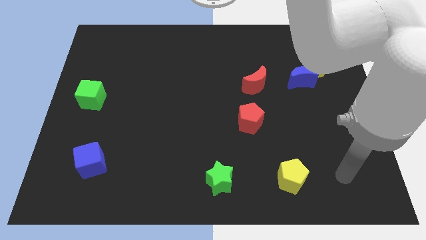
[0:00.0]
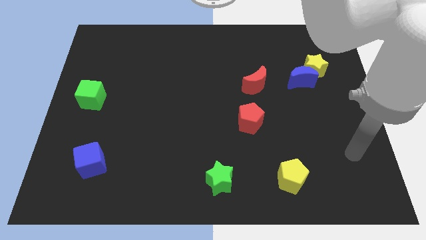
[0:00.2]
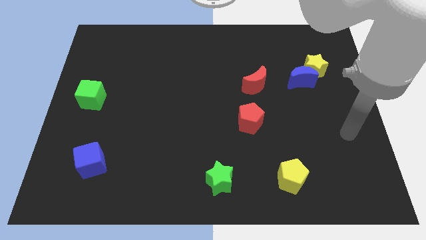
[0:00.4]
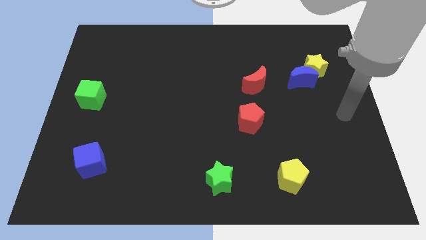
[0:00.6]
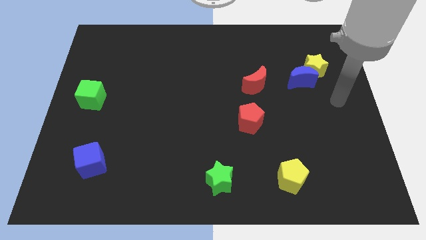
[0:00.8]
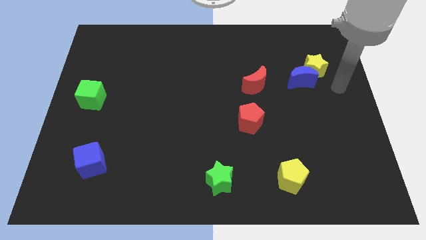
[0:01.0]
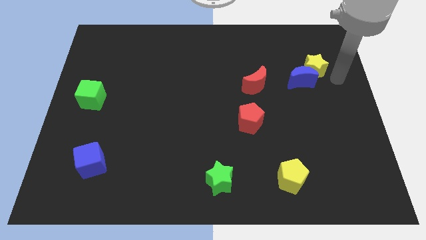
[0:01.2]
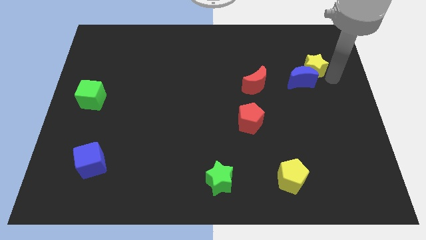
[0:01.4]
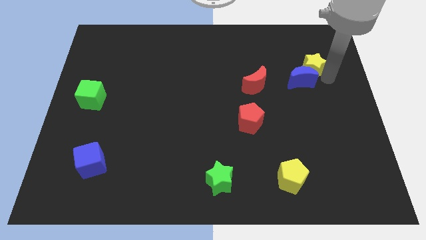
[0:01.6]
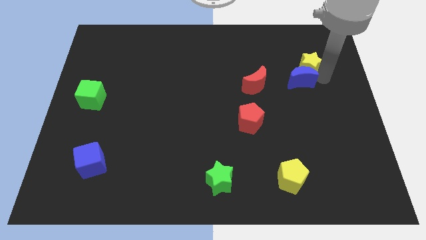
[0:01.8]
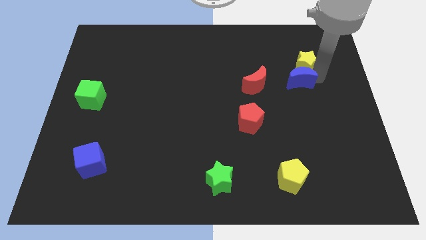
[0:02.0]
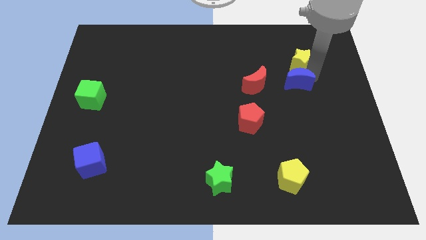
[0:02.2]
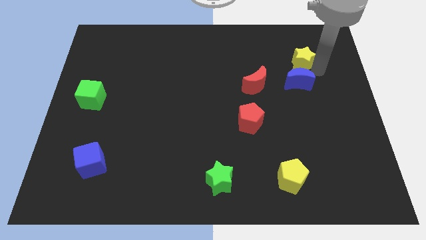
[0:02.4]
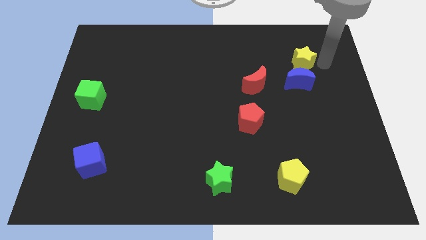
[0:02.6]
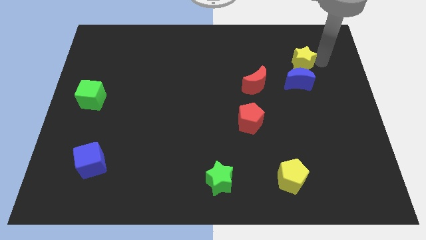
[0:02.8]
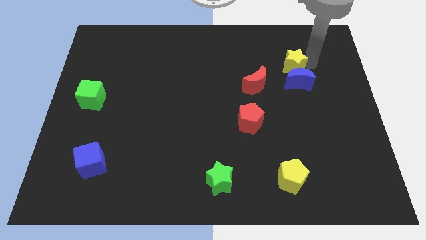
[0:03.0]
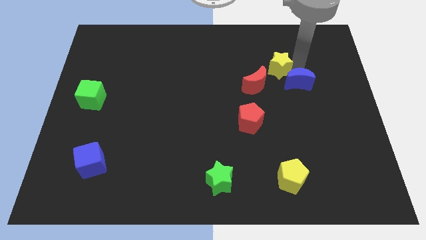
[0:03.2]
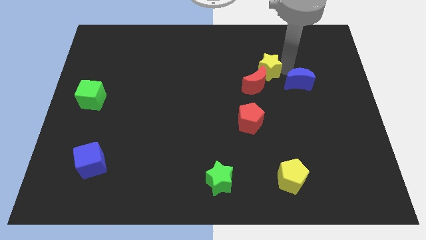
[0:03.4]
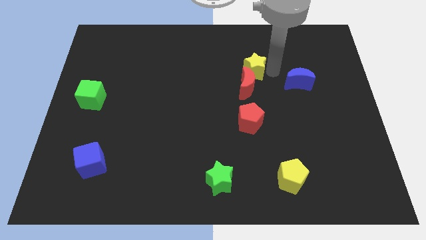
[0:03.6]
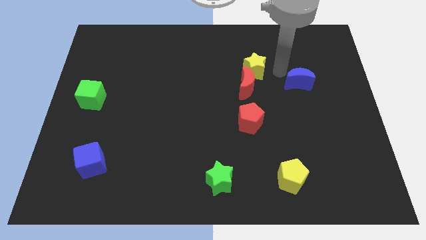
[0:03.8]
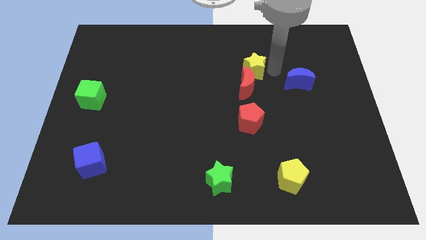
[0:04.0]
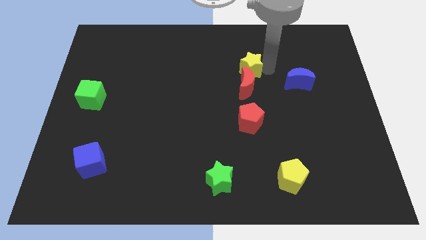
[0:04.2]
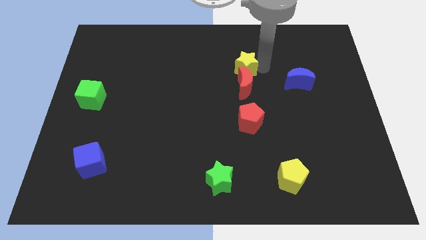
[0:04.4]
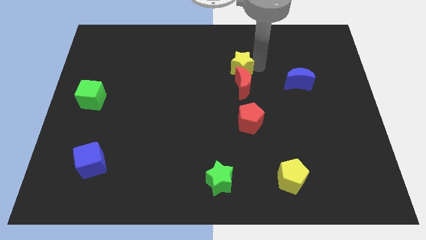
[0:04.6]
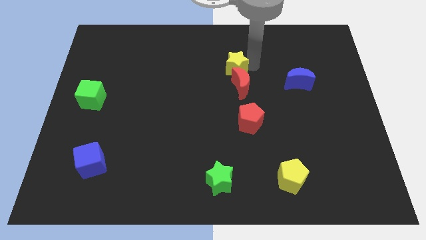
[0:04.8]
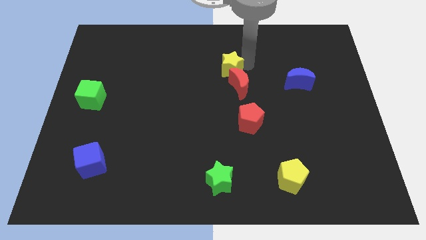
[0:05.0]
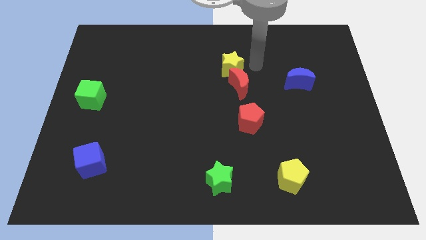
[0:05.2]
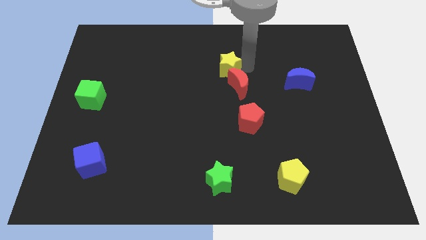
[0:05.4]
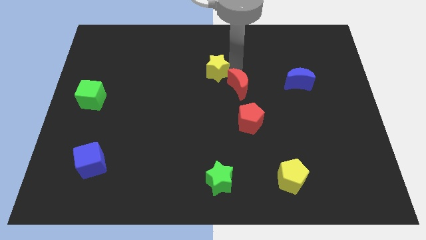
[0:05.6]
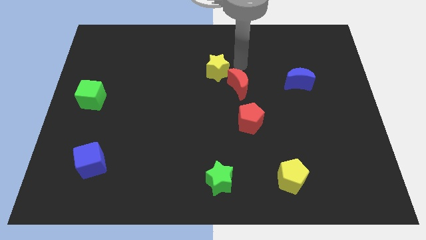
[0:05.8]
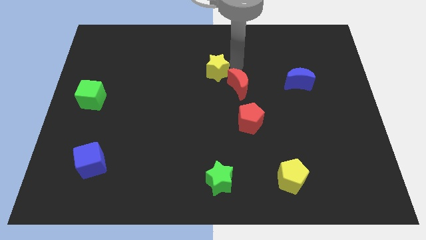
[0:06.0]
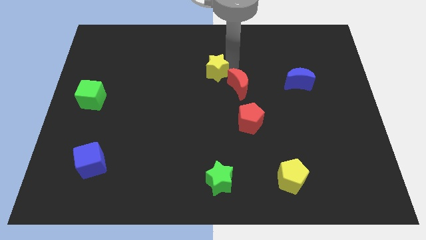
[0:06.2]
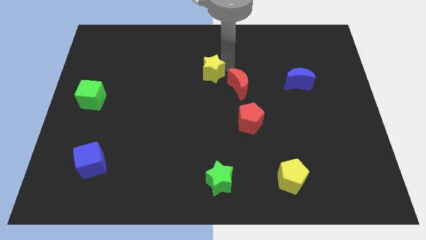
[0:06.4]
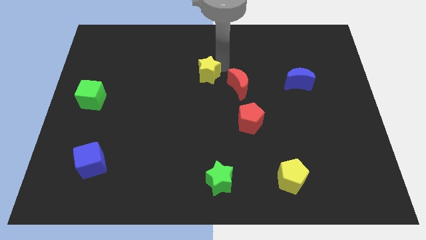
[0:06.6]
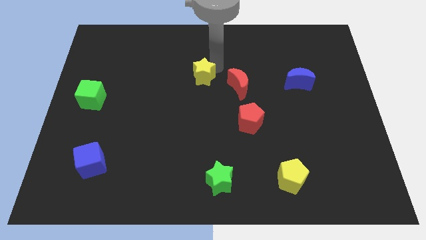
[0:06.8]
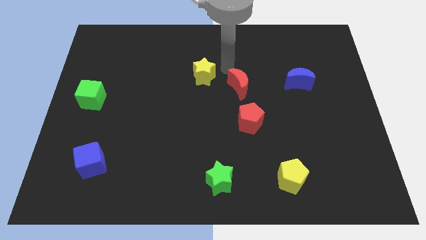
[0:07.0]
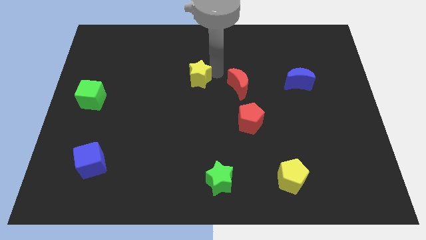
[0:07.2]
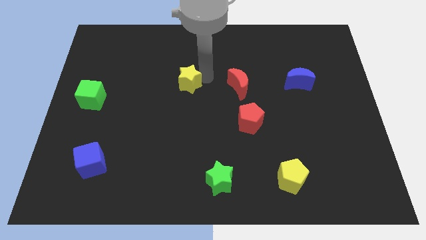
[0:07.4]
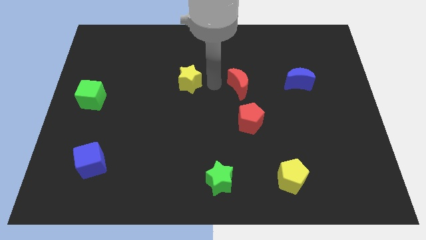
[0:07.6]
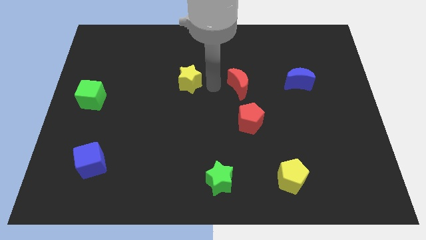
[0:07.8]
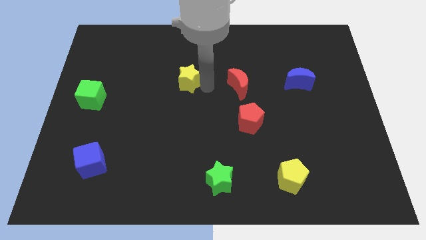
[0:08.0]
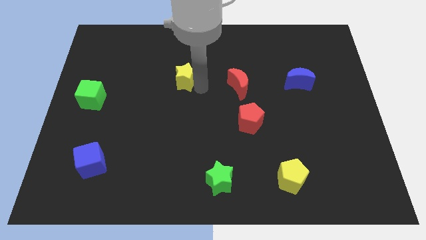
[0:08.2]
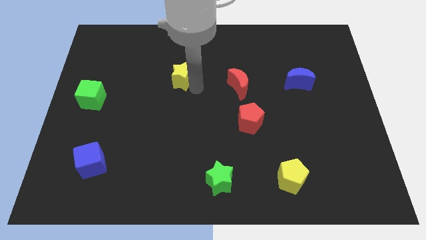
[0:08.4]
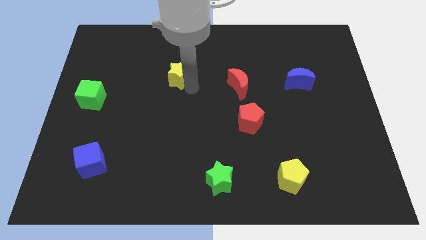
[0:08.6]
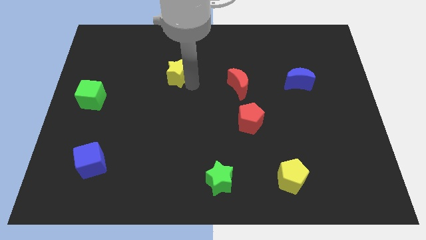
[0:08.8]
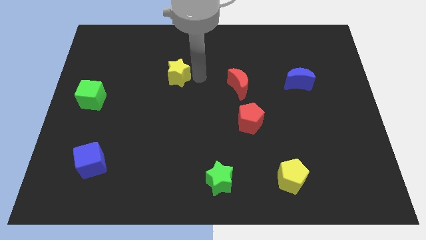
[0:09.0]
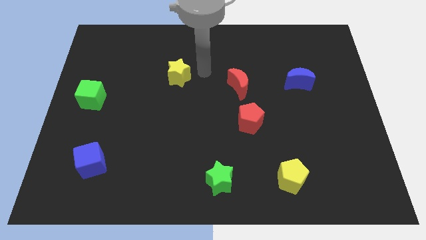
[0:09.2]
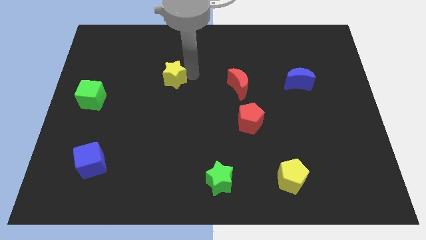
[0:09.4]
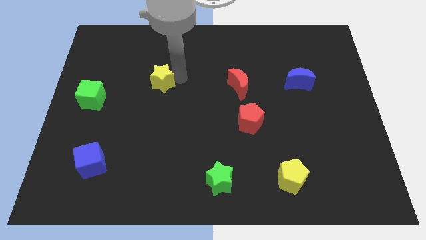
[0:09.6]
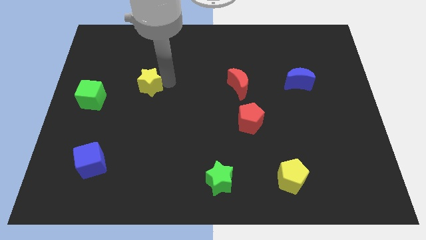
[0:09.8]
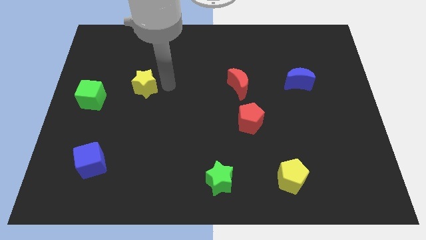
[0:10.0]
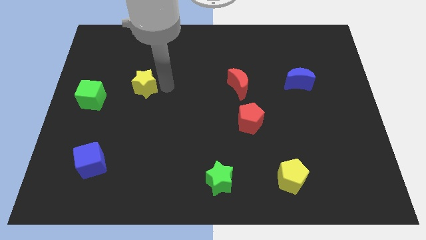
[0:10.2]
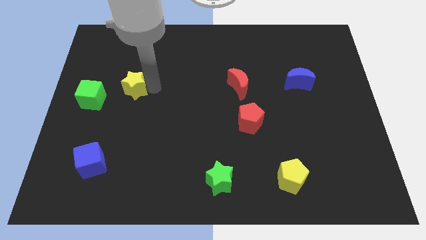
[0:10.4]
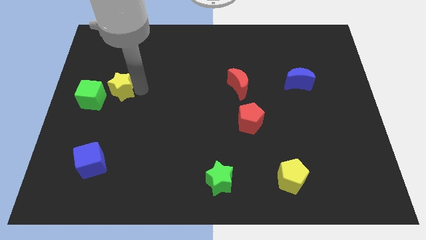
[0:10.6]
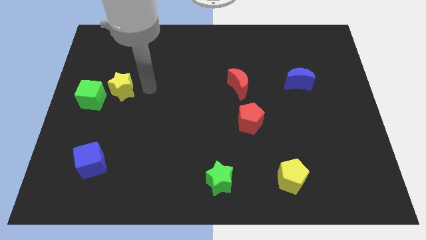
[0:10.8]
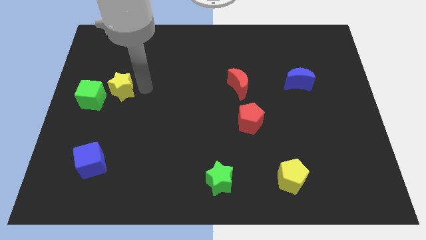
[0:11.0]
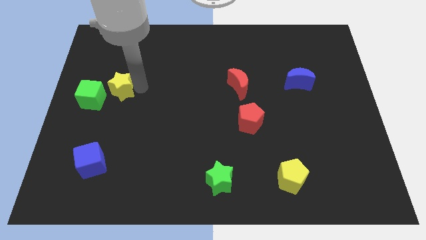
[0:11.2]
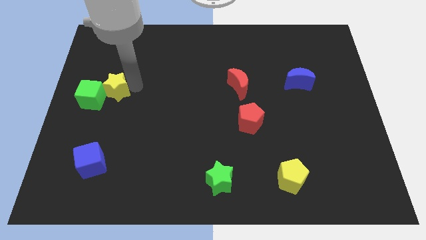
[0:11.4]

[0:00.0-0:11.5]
put the yellow star to the green cube

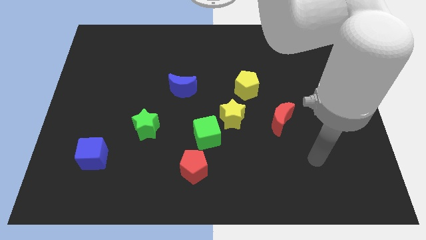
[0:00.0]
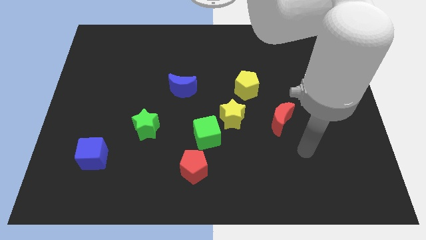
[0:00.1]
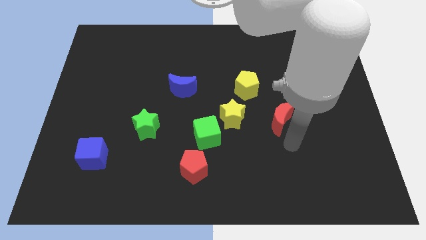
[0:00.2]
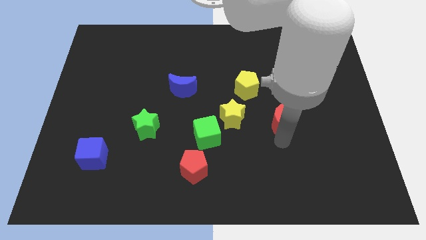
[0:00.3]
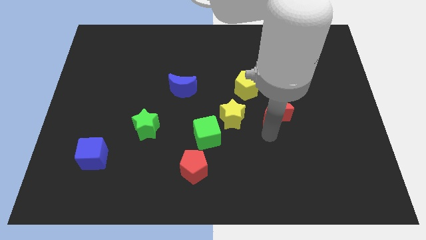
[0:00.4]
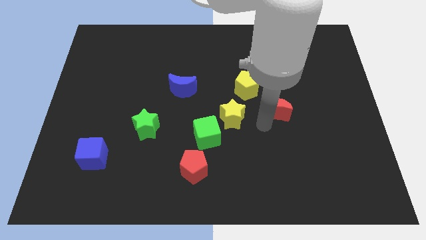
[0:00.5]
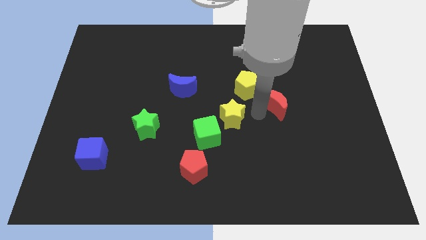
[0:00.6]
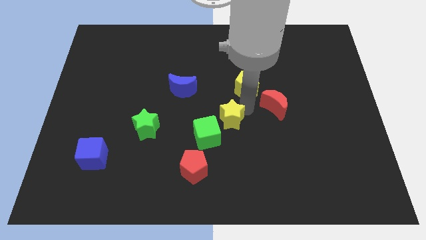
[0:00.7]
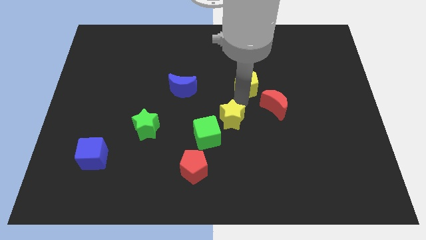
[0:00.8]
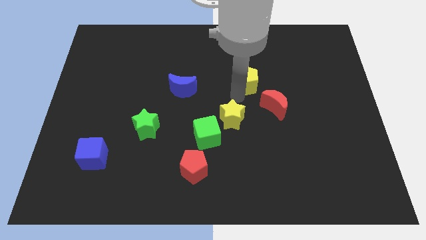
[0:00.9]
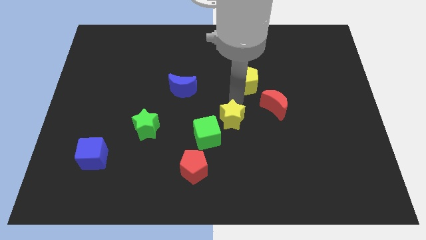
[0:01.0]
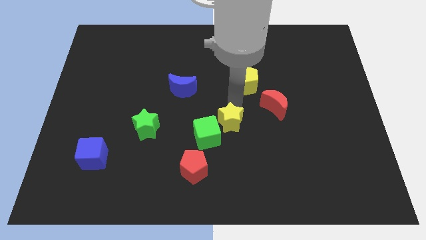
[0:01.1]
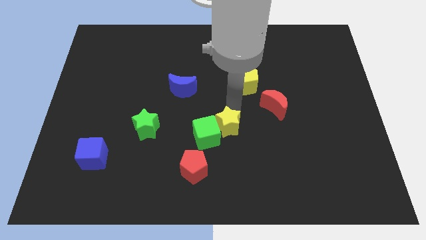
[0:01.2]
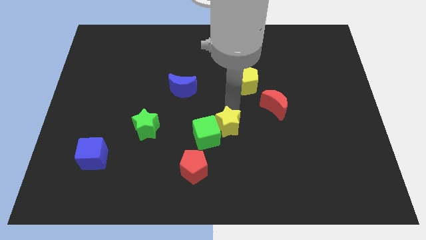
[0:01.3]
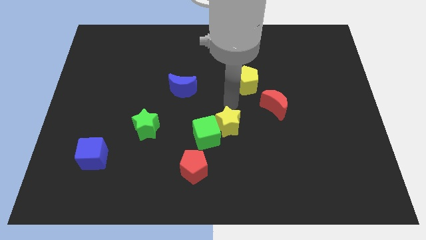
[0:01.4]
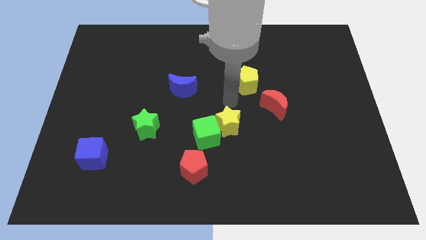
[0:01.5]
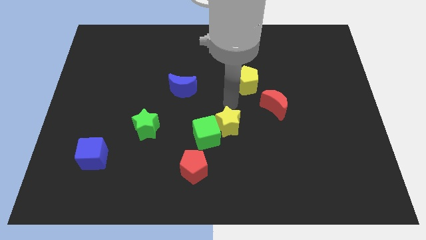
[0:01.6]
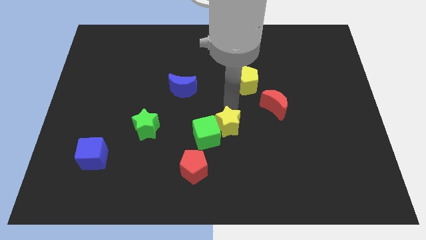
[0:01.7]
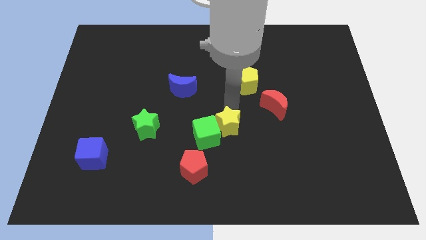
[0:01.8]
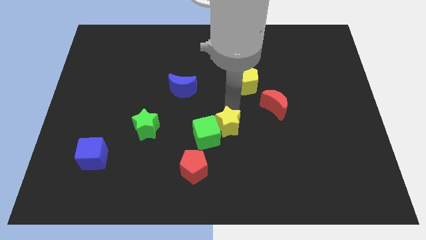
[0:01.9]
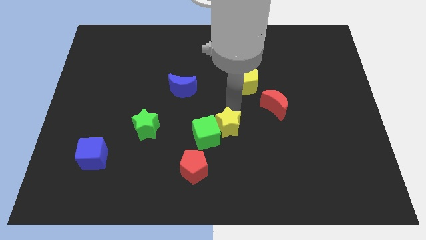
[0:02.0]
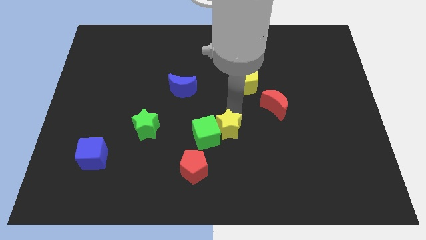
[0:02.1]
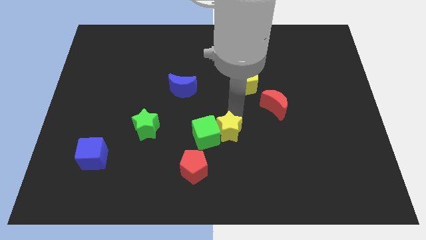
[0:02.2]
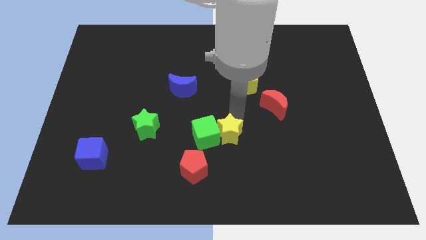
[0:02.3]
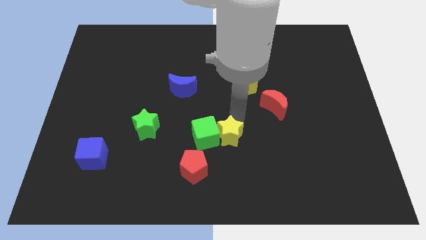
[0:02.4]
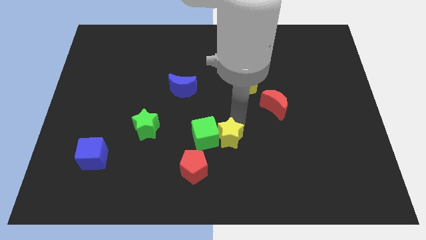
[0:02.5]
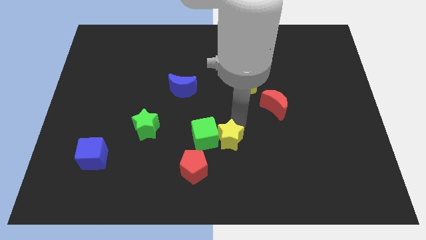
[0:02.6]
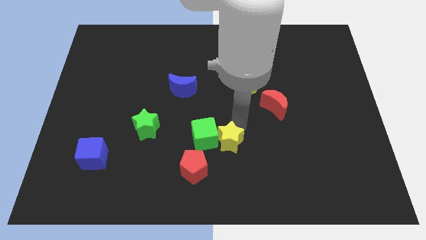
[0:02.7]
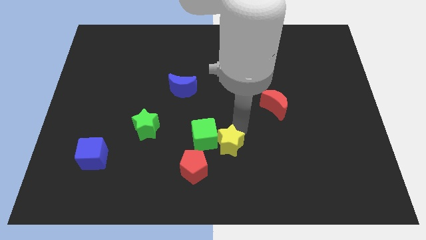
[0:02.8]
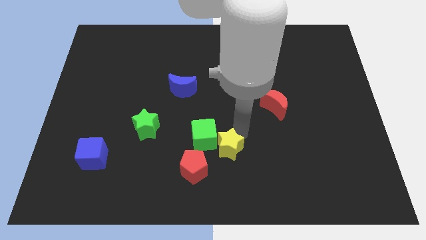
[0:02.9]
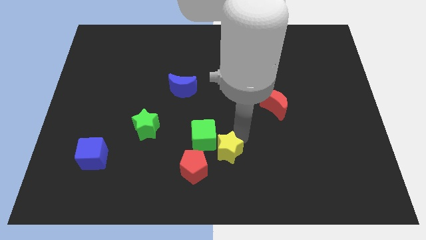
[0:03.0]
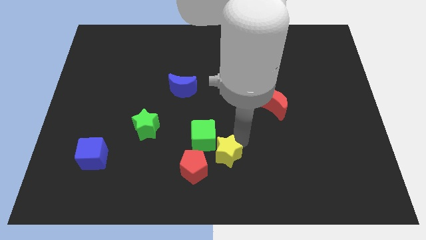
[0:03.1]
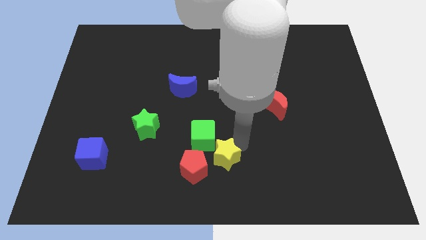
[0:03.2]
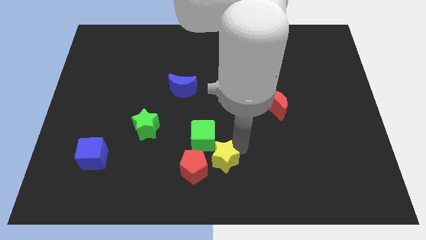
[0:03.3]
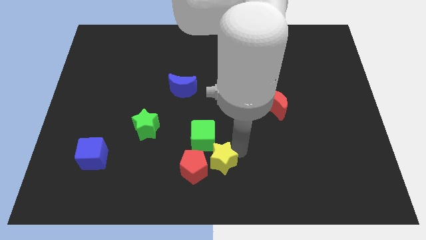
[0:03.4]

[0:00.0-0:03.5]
put the yellow star to the red pentagon
